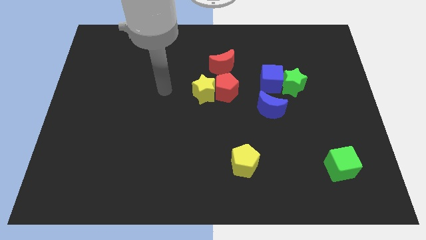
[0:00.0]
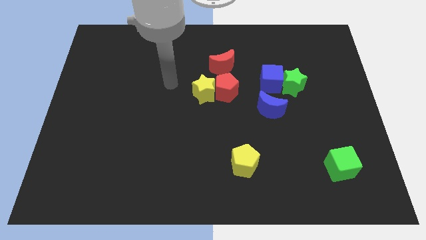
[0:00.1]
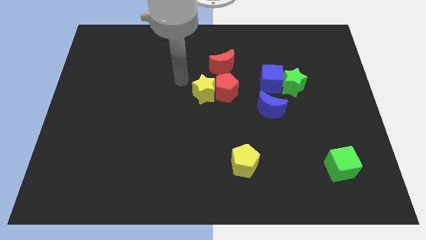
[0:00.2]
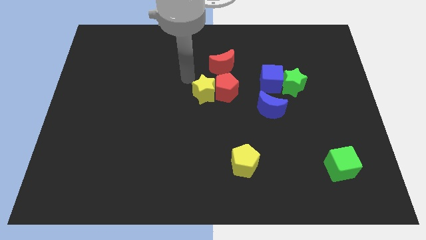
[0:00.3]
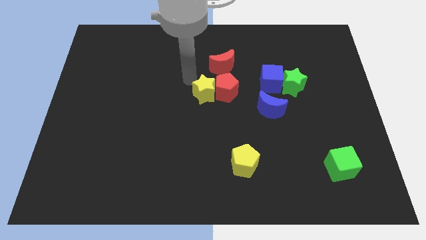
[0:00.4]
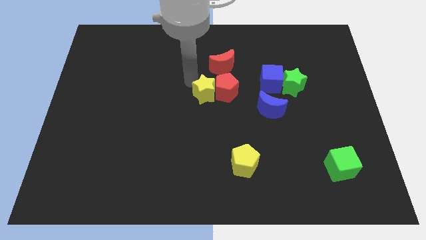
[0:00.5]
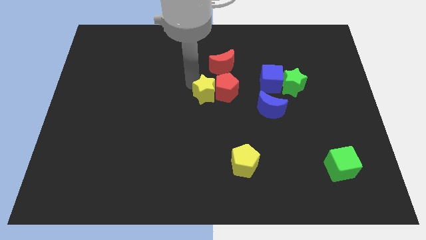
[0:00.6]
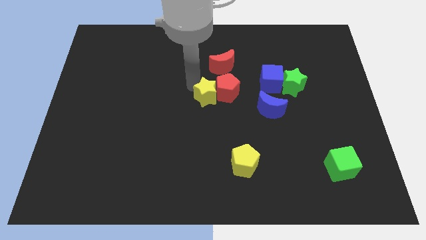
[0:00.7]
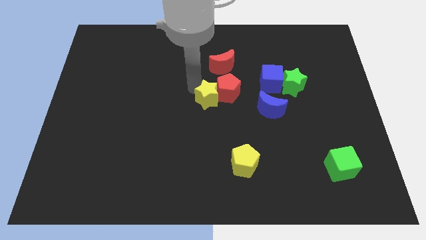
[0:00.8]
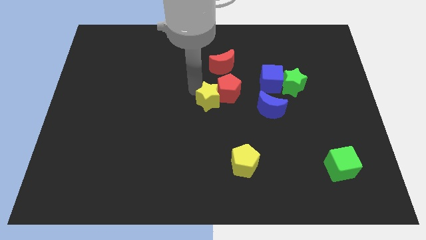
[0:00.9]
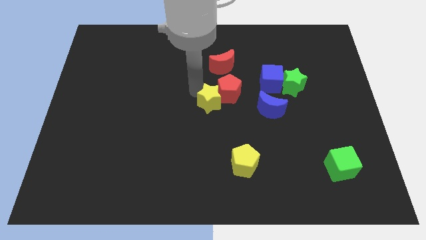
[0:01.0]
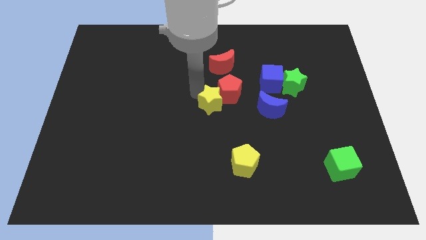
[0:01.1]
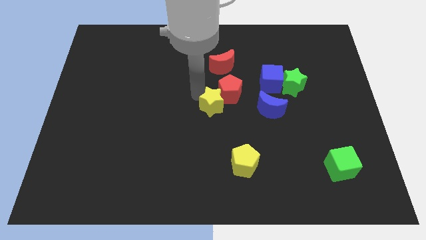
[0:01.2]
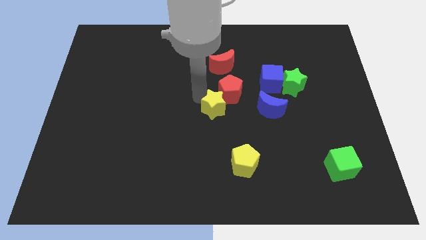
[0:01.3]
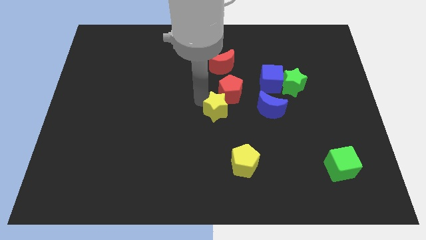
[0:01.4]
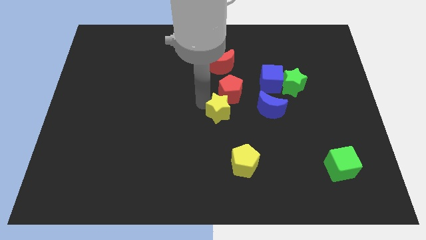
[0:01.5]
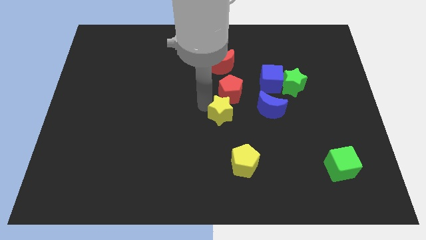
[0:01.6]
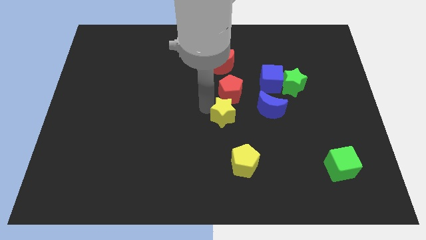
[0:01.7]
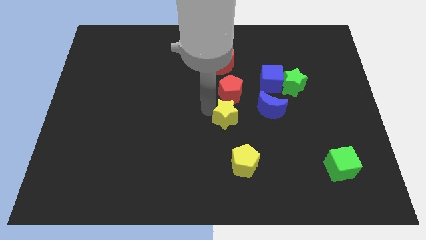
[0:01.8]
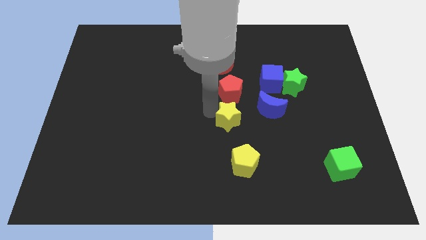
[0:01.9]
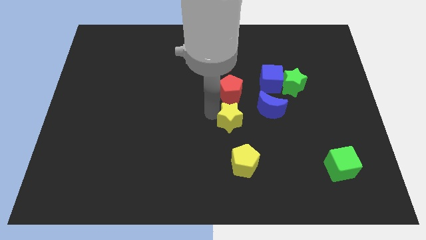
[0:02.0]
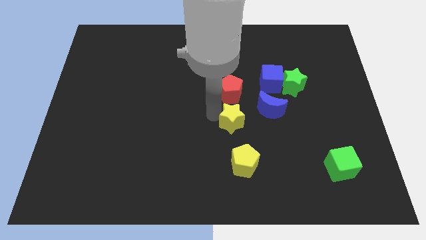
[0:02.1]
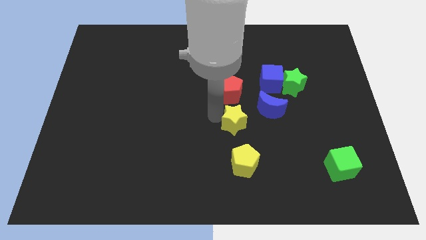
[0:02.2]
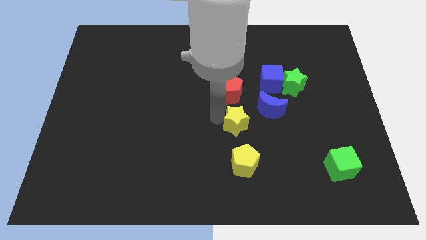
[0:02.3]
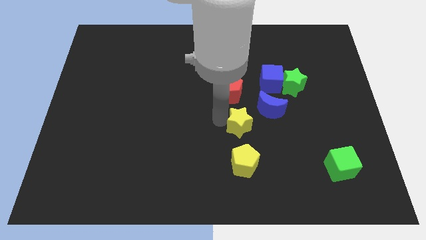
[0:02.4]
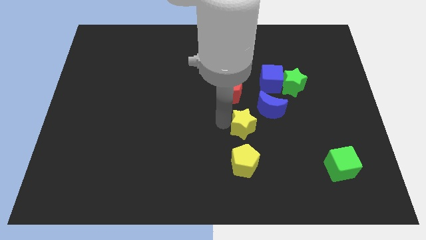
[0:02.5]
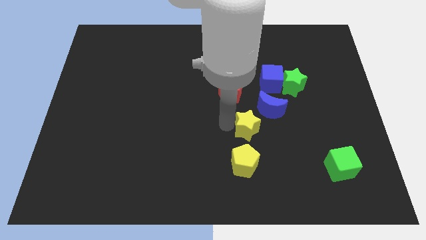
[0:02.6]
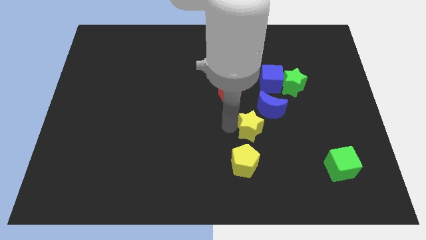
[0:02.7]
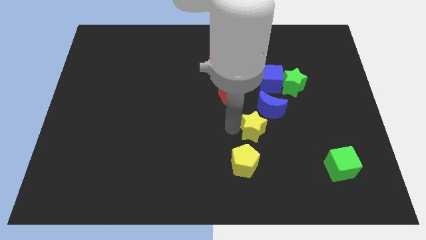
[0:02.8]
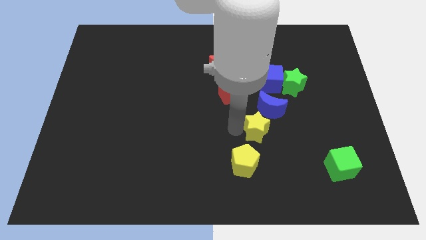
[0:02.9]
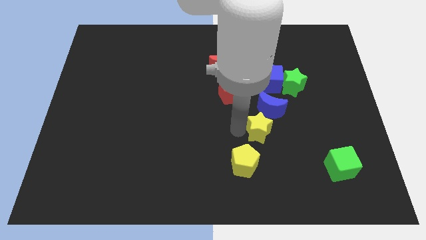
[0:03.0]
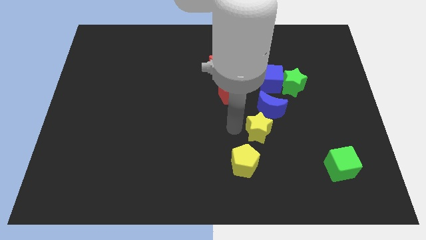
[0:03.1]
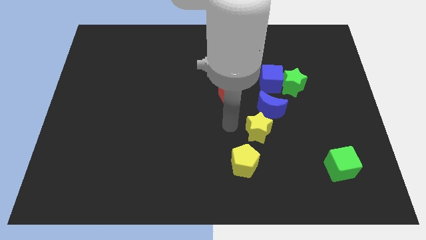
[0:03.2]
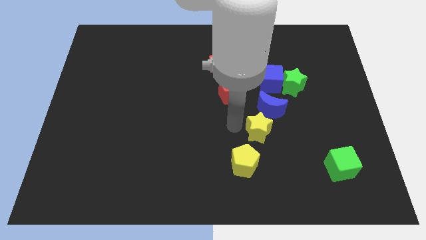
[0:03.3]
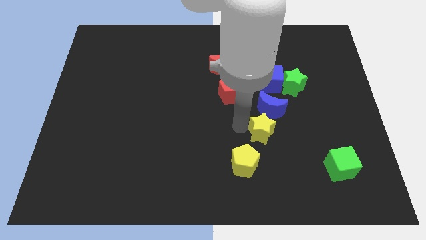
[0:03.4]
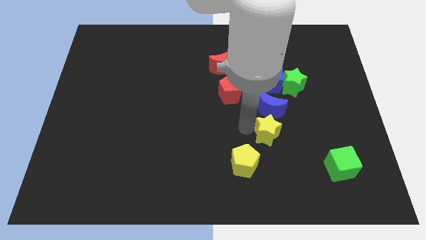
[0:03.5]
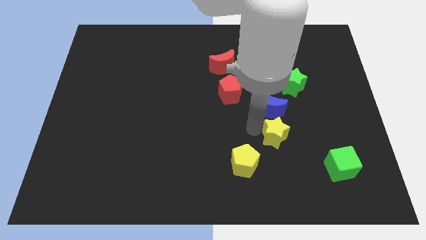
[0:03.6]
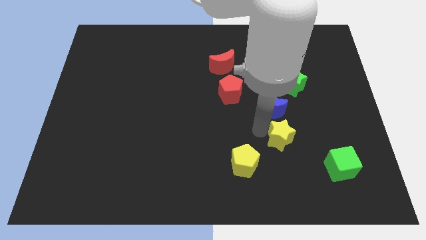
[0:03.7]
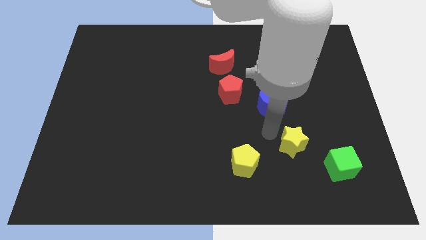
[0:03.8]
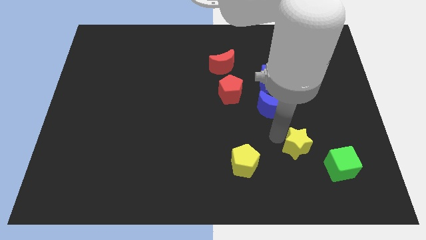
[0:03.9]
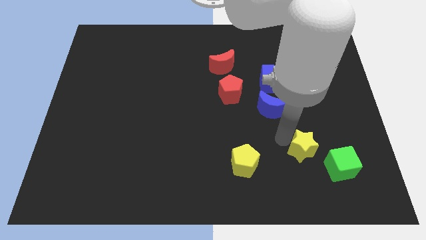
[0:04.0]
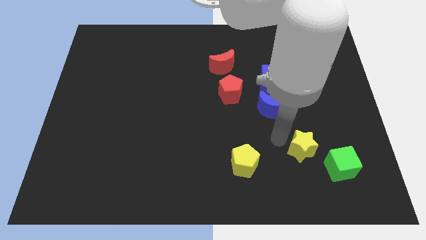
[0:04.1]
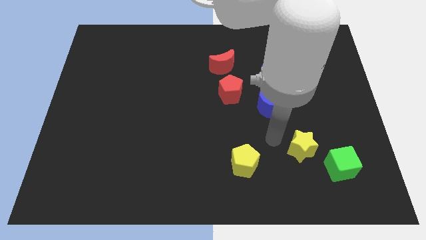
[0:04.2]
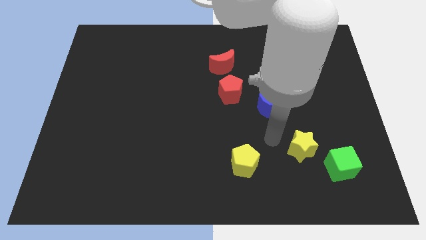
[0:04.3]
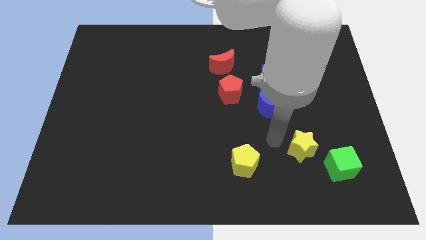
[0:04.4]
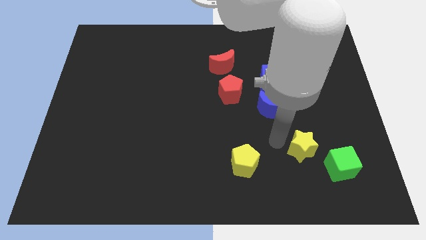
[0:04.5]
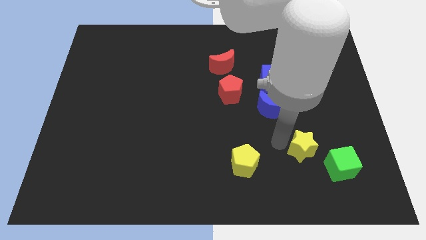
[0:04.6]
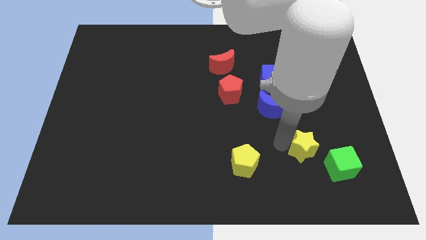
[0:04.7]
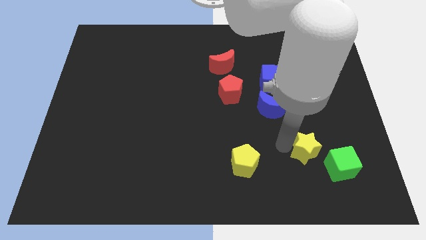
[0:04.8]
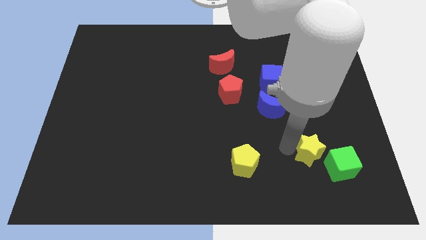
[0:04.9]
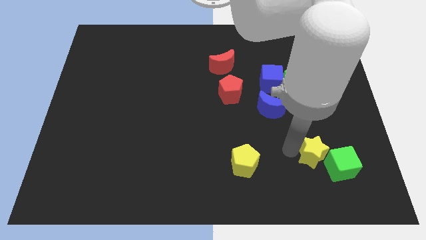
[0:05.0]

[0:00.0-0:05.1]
push the yellow star close to the green cube
